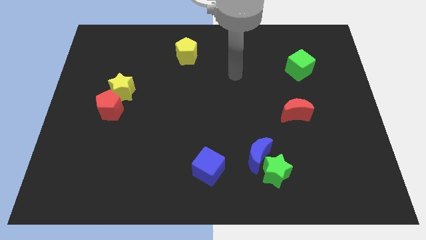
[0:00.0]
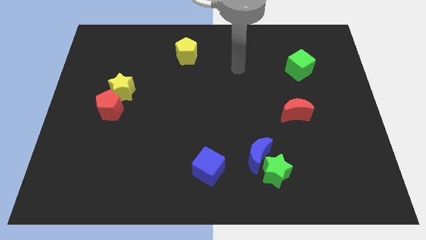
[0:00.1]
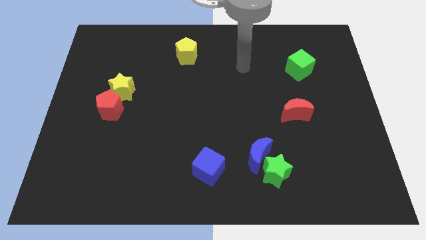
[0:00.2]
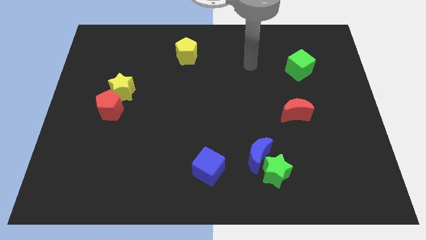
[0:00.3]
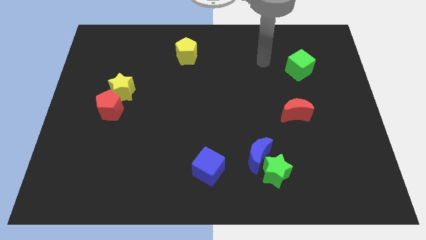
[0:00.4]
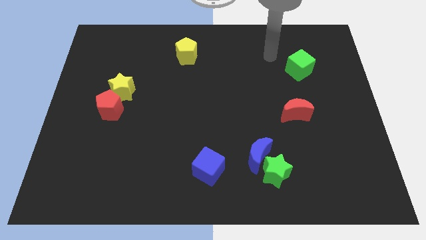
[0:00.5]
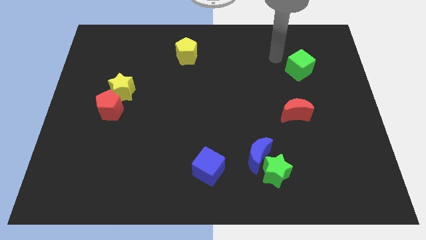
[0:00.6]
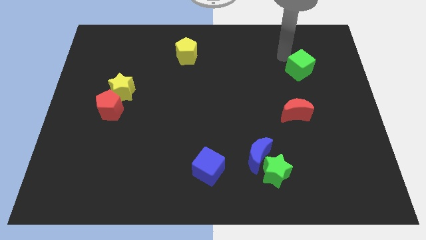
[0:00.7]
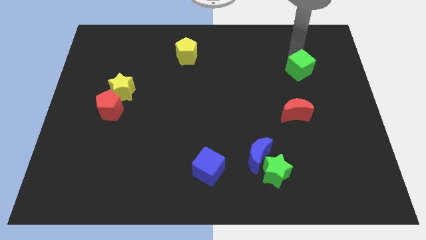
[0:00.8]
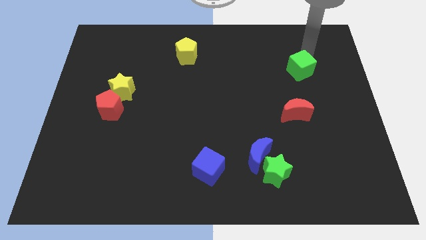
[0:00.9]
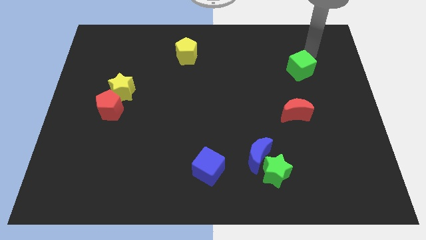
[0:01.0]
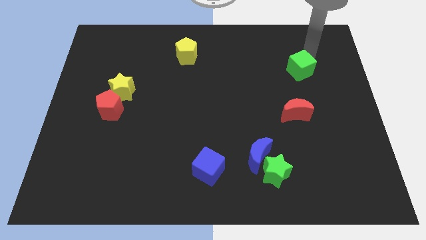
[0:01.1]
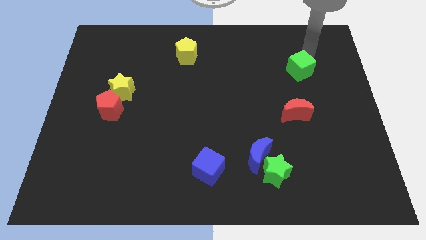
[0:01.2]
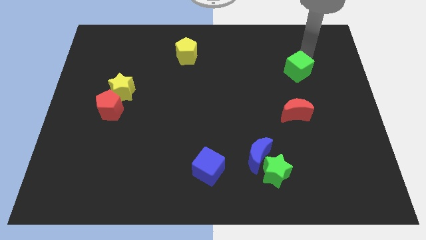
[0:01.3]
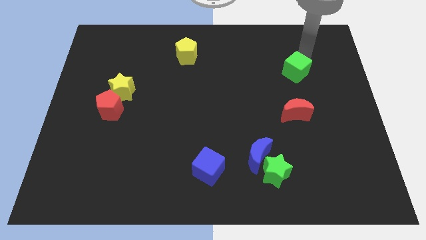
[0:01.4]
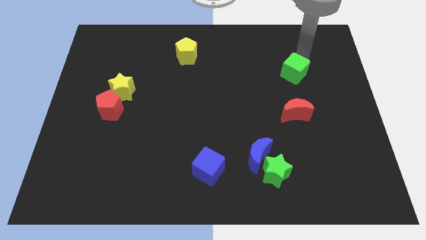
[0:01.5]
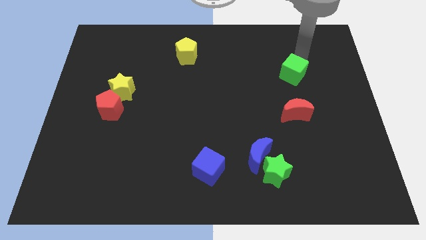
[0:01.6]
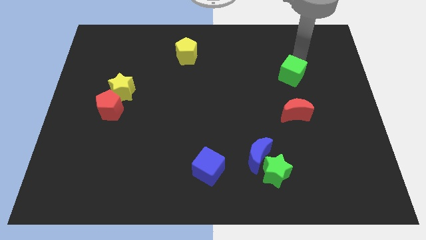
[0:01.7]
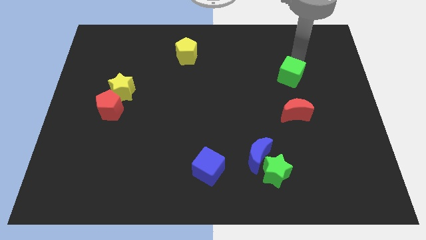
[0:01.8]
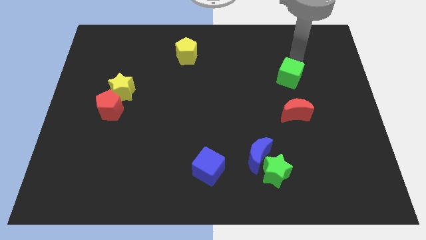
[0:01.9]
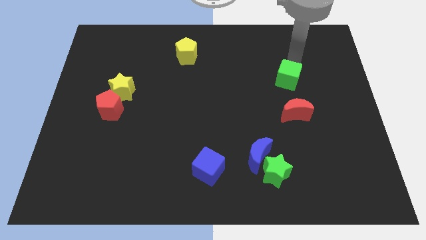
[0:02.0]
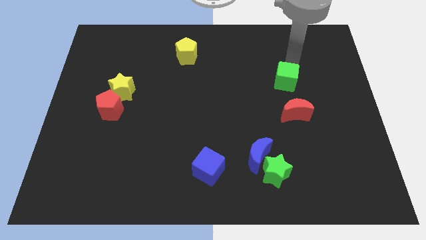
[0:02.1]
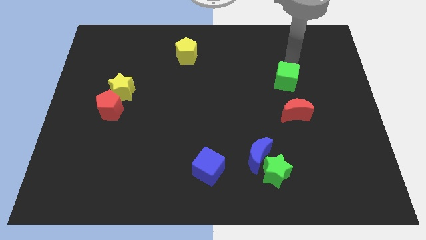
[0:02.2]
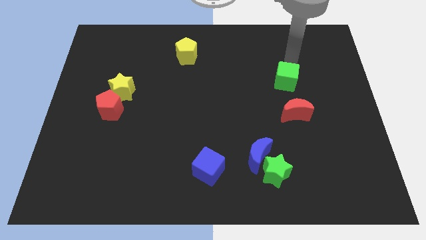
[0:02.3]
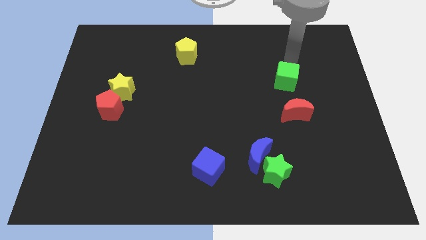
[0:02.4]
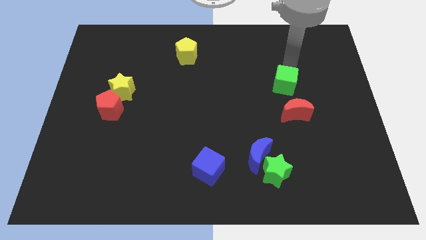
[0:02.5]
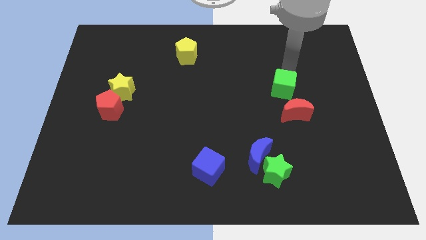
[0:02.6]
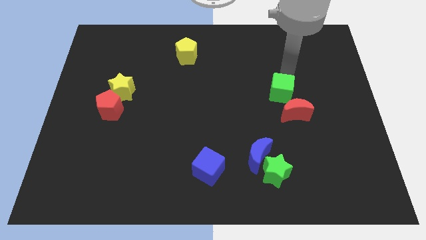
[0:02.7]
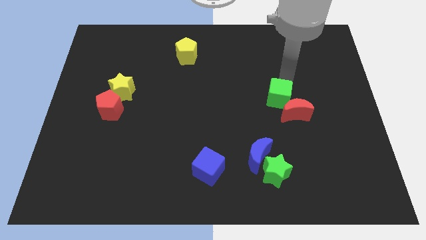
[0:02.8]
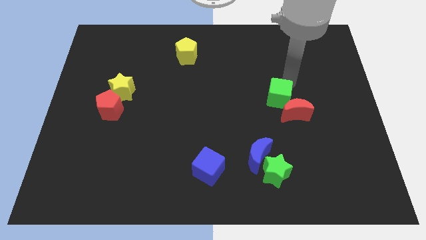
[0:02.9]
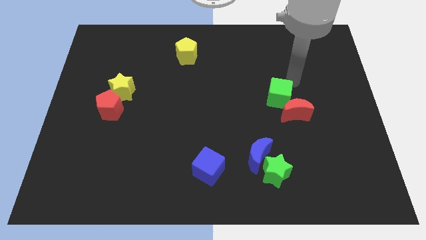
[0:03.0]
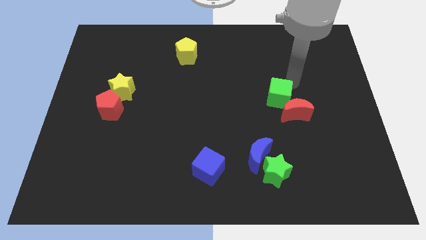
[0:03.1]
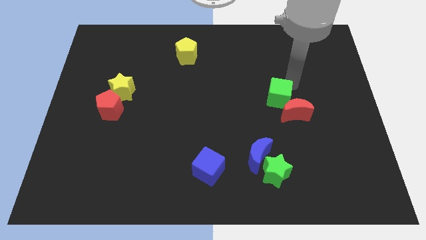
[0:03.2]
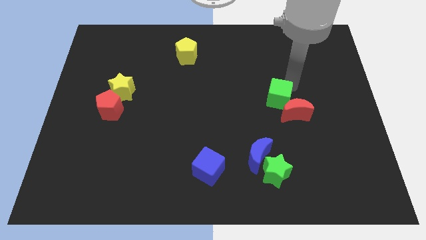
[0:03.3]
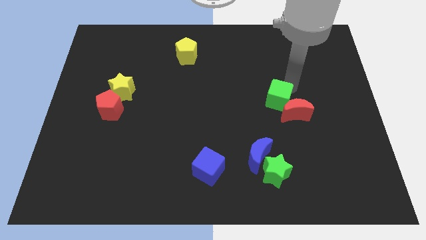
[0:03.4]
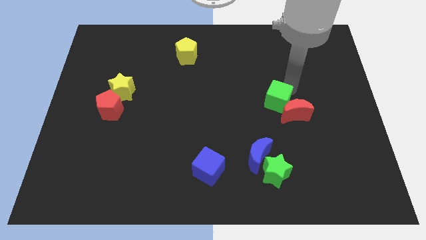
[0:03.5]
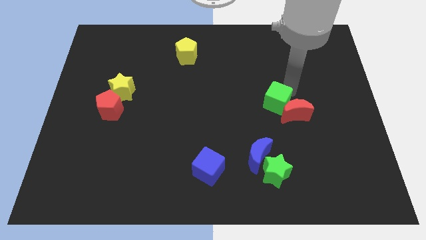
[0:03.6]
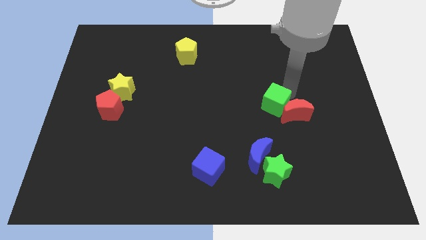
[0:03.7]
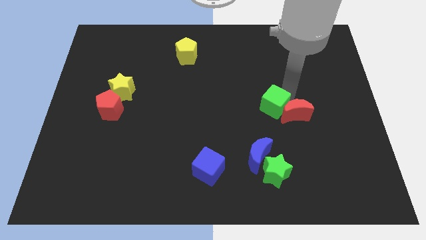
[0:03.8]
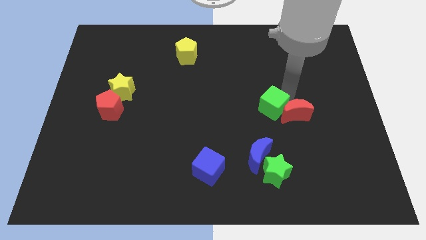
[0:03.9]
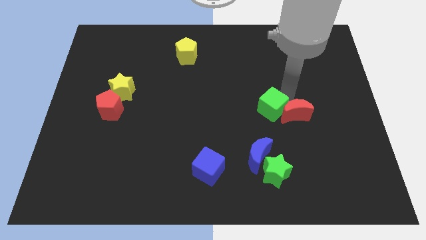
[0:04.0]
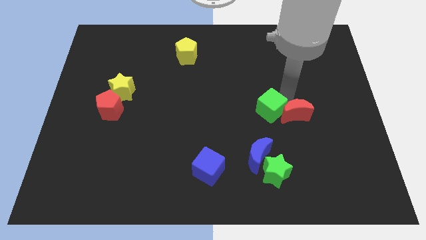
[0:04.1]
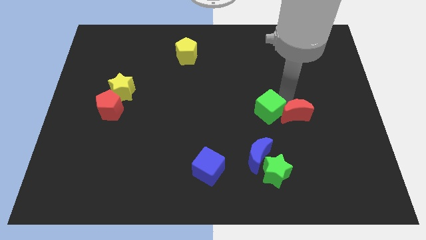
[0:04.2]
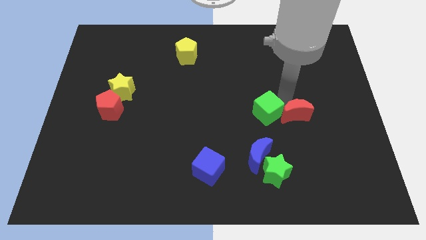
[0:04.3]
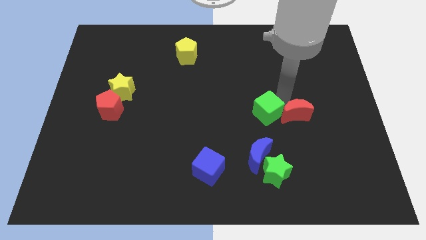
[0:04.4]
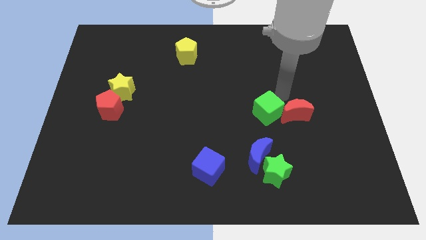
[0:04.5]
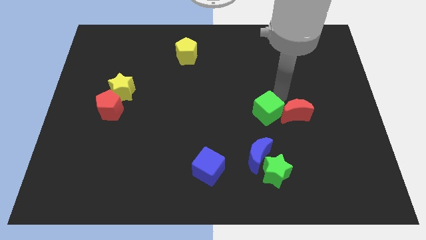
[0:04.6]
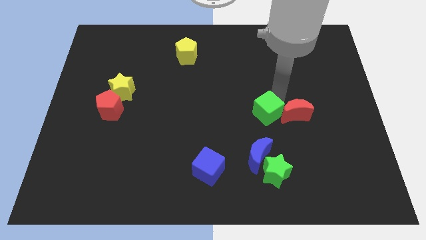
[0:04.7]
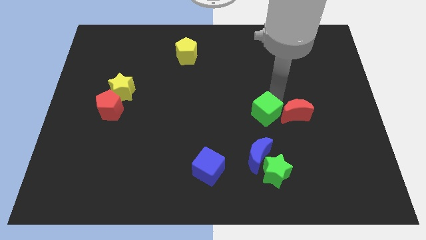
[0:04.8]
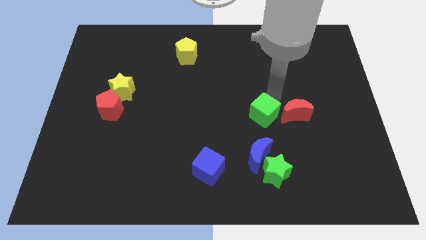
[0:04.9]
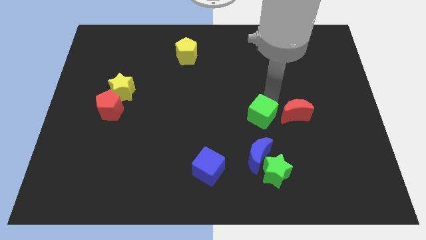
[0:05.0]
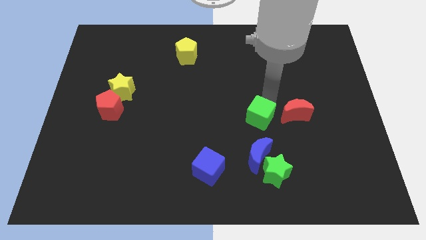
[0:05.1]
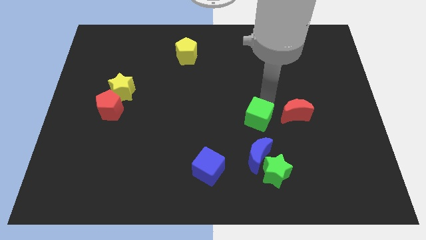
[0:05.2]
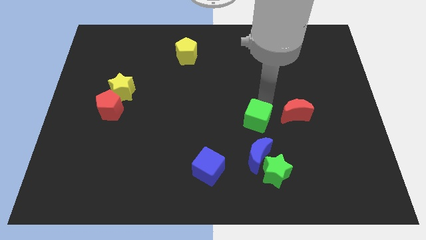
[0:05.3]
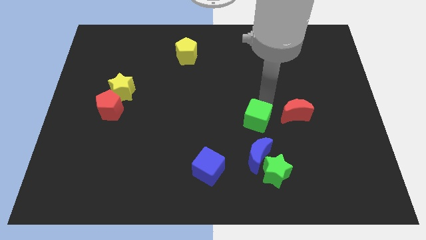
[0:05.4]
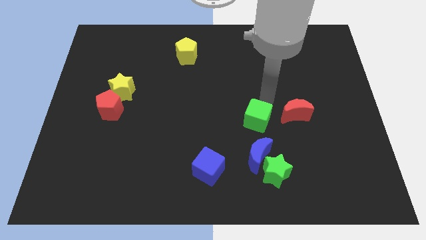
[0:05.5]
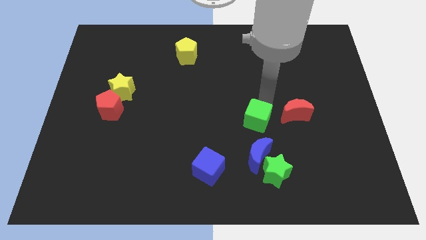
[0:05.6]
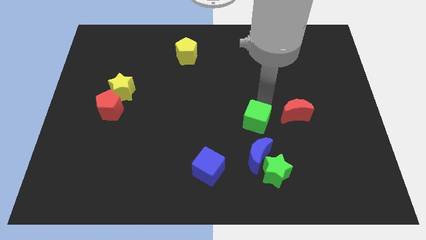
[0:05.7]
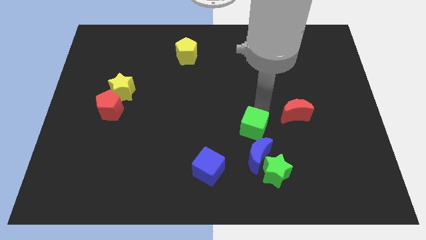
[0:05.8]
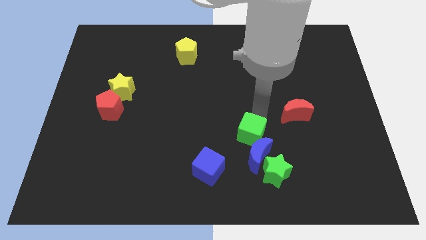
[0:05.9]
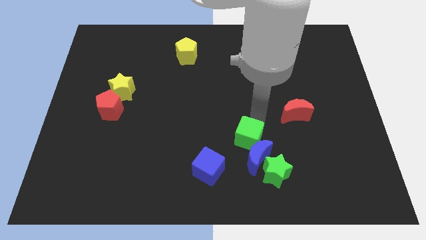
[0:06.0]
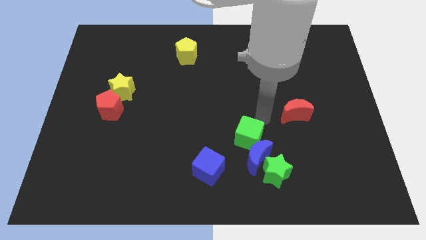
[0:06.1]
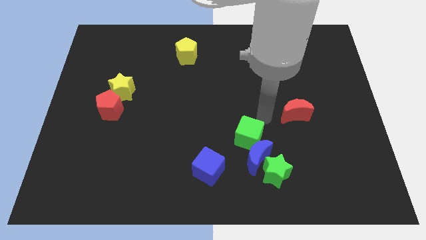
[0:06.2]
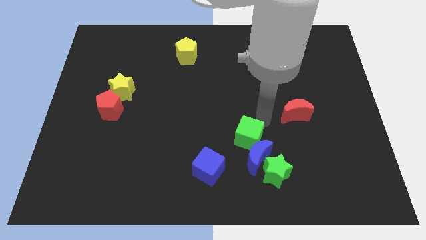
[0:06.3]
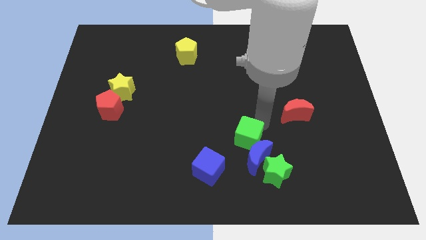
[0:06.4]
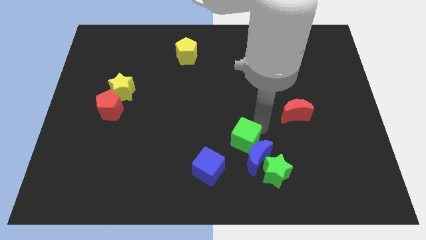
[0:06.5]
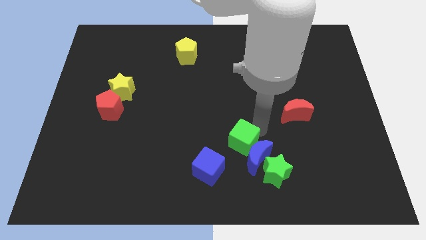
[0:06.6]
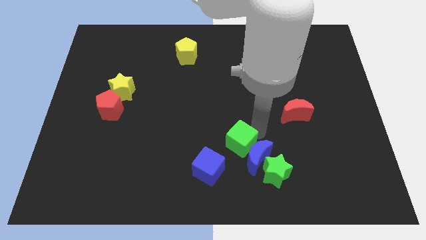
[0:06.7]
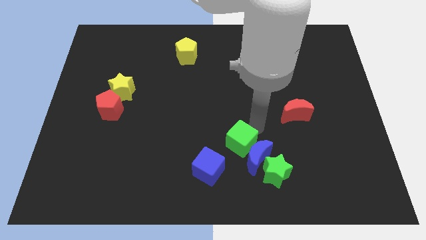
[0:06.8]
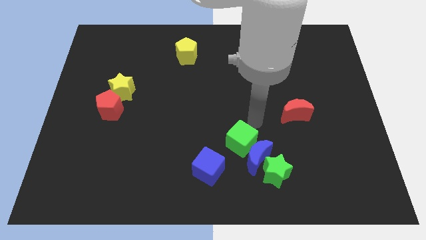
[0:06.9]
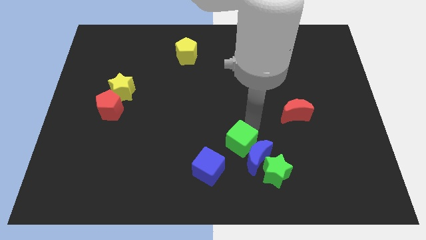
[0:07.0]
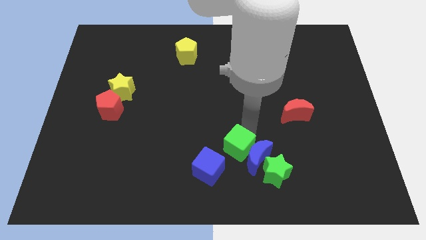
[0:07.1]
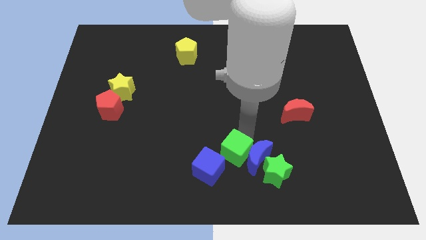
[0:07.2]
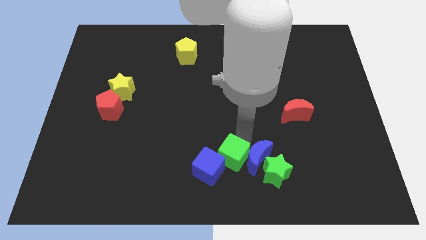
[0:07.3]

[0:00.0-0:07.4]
put the green cube to the bottom side

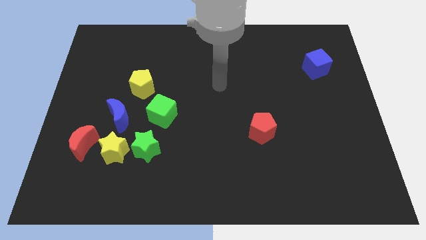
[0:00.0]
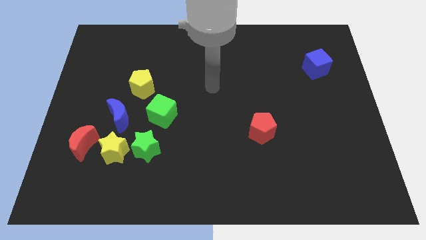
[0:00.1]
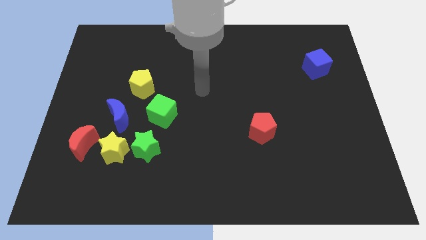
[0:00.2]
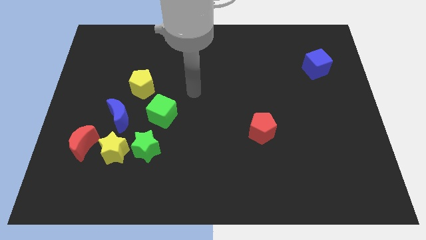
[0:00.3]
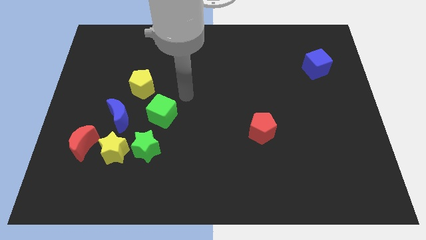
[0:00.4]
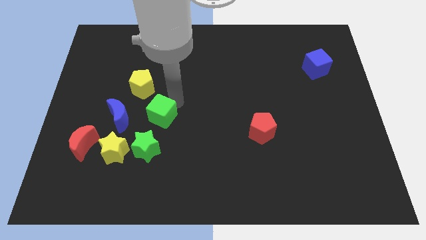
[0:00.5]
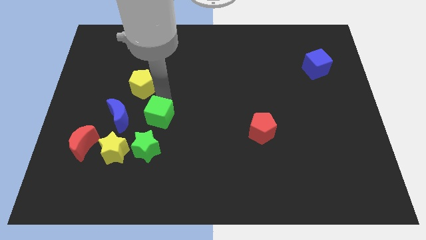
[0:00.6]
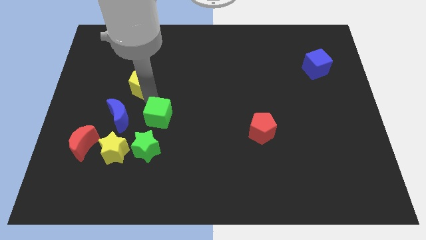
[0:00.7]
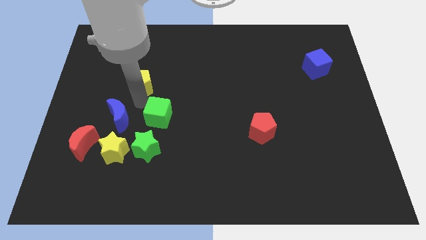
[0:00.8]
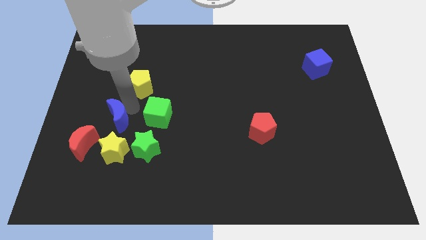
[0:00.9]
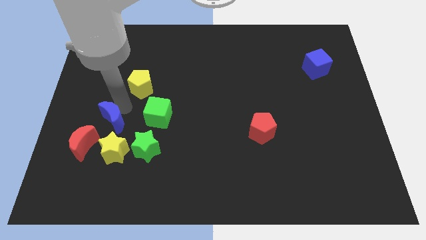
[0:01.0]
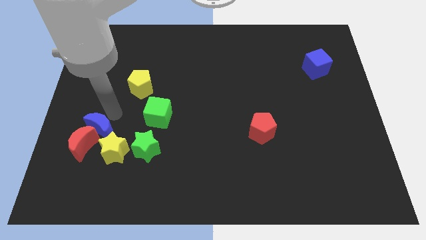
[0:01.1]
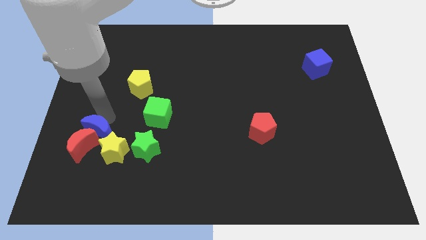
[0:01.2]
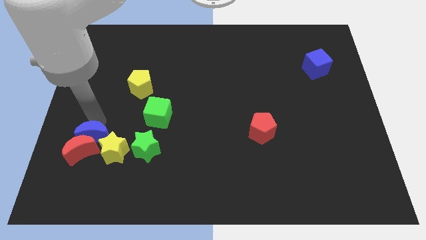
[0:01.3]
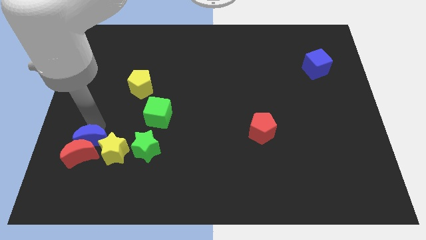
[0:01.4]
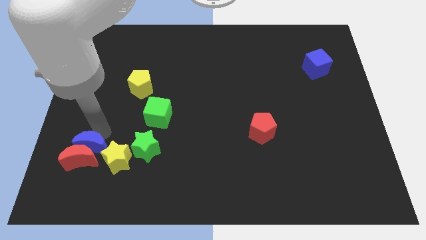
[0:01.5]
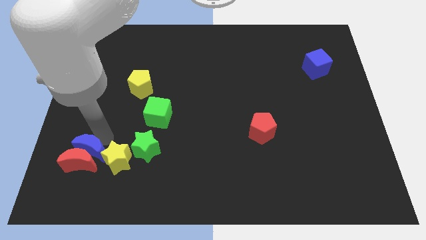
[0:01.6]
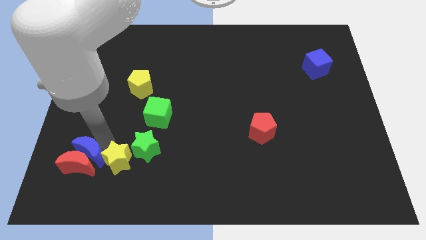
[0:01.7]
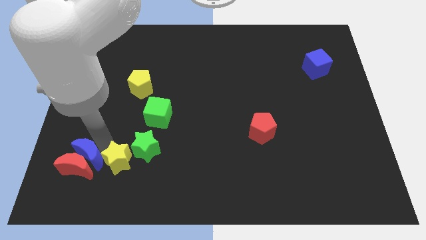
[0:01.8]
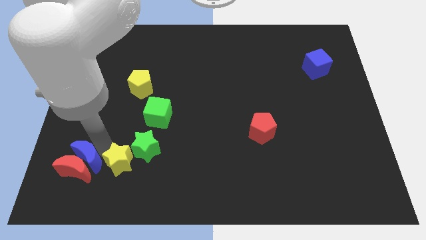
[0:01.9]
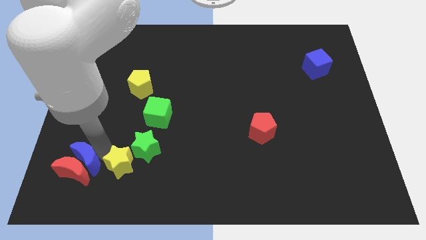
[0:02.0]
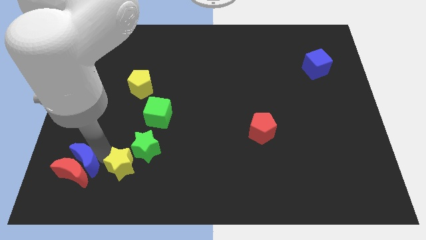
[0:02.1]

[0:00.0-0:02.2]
put the red moon to the bottom left
